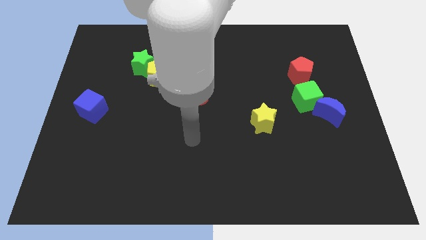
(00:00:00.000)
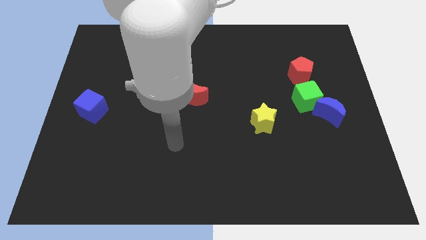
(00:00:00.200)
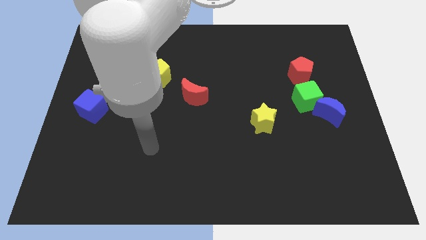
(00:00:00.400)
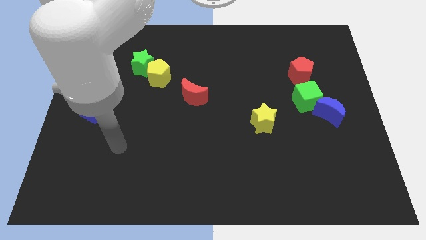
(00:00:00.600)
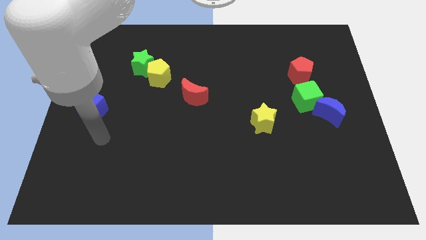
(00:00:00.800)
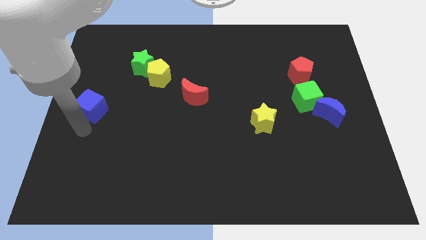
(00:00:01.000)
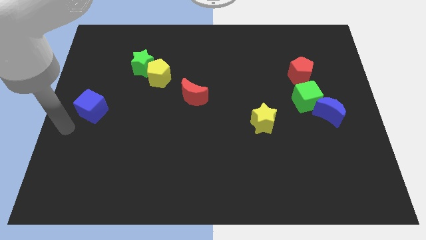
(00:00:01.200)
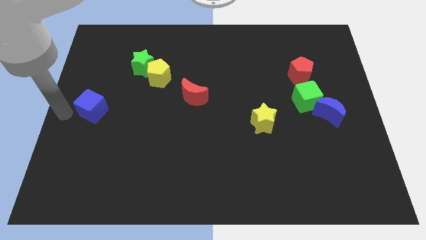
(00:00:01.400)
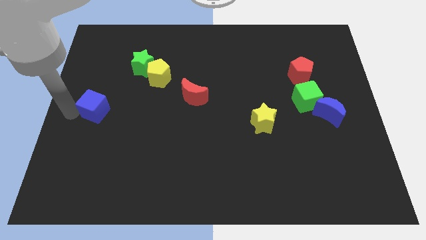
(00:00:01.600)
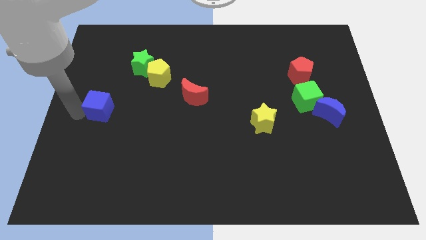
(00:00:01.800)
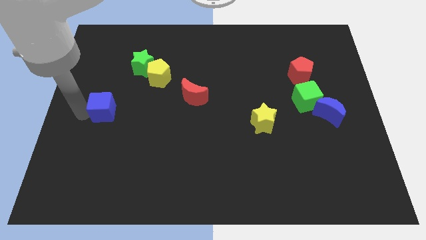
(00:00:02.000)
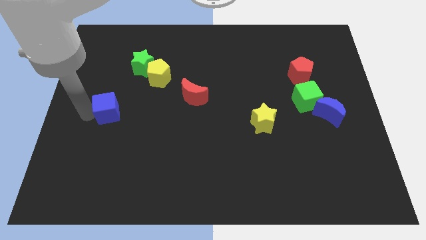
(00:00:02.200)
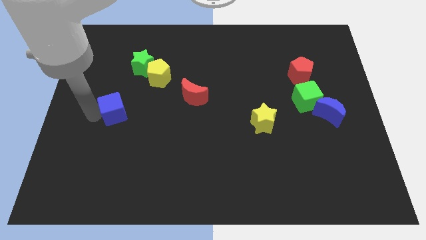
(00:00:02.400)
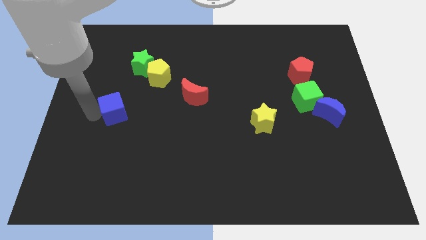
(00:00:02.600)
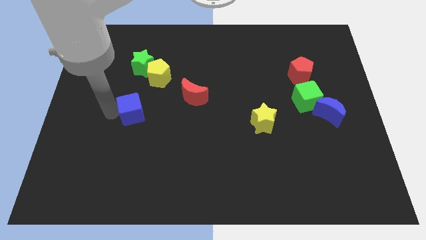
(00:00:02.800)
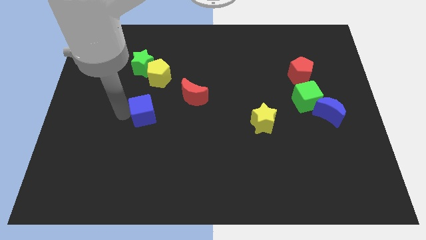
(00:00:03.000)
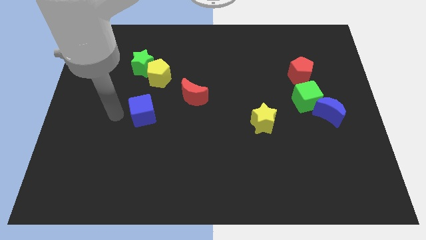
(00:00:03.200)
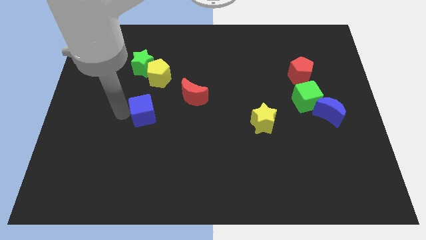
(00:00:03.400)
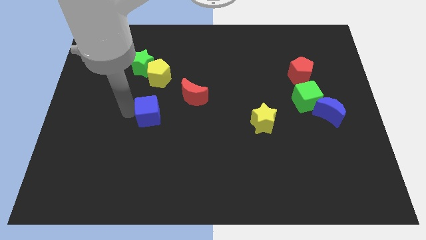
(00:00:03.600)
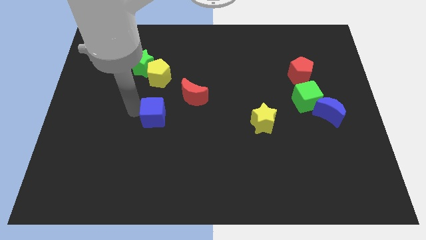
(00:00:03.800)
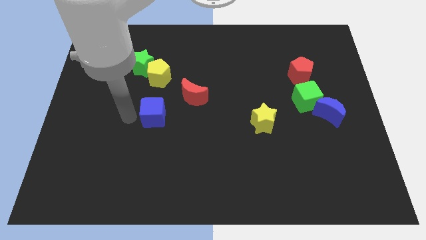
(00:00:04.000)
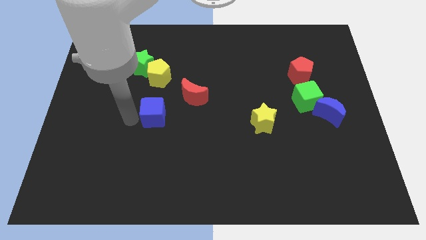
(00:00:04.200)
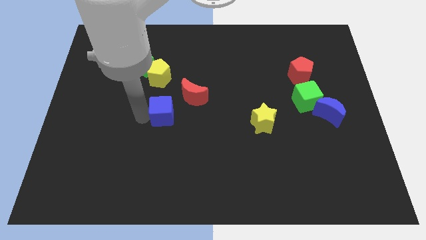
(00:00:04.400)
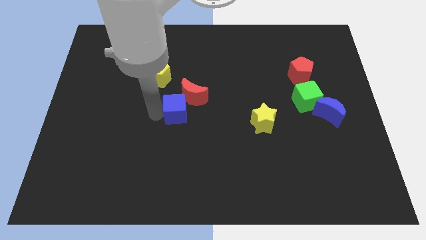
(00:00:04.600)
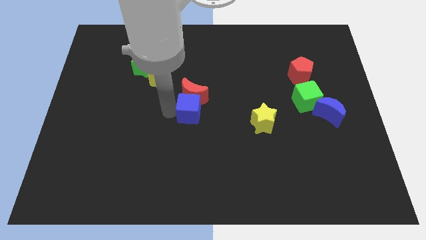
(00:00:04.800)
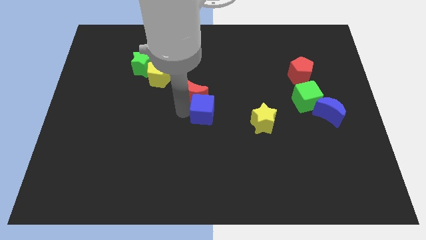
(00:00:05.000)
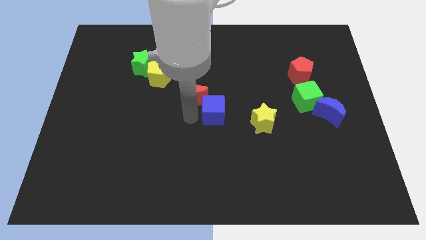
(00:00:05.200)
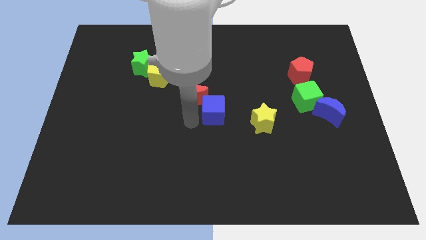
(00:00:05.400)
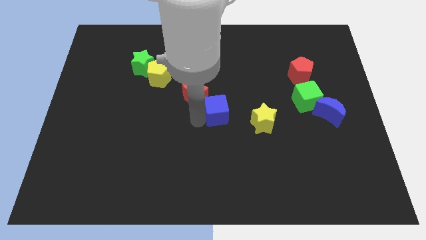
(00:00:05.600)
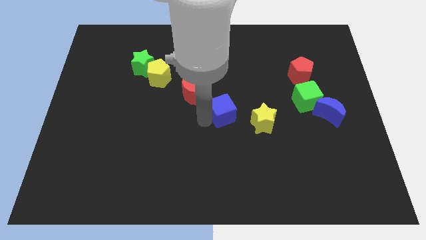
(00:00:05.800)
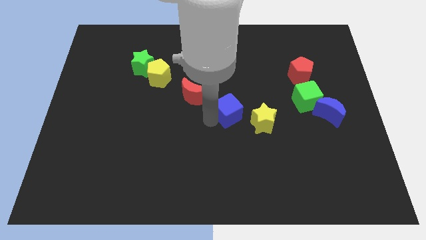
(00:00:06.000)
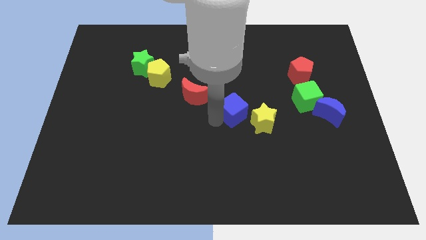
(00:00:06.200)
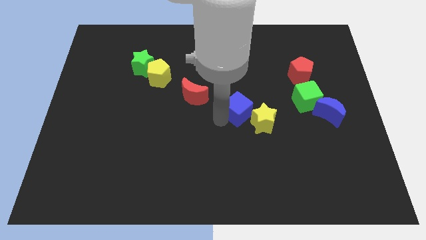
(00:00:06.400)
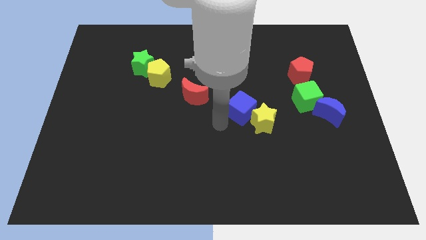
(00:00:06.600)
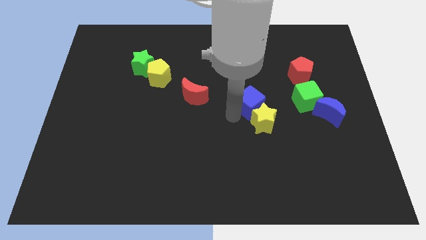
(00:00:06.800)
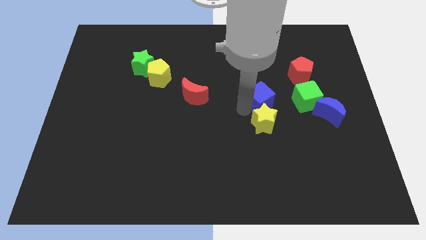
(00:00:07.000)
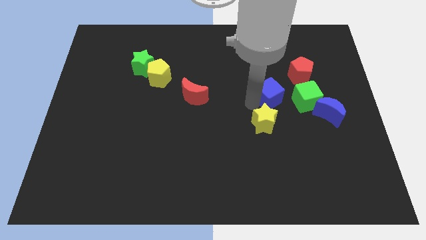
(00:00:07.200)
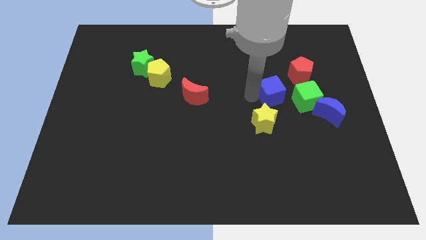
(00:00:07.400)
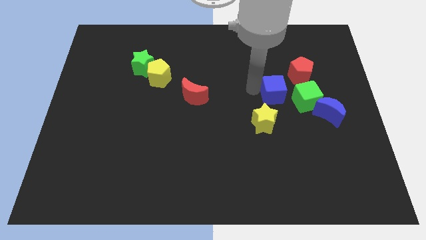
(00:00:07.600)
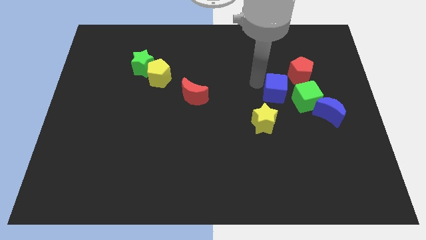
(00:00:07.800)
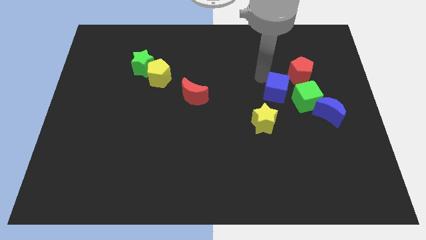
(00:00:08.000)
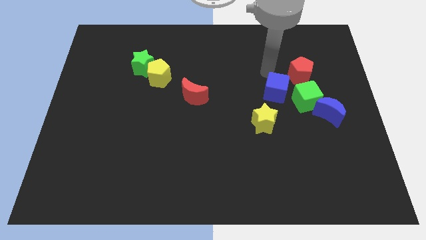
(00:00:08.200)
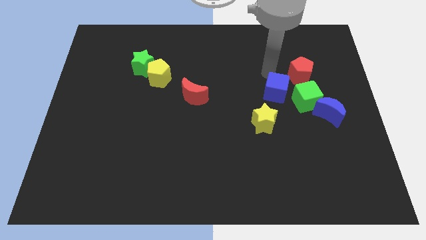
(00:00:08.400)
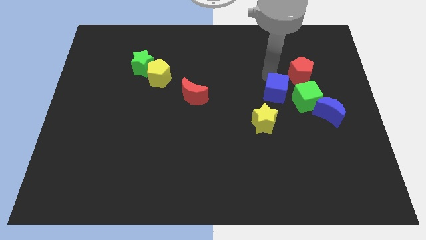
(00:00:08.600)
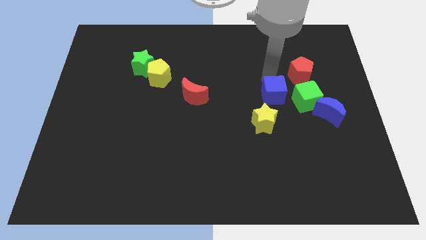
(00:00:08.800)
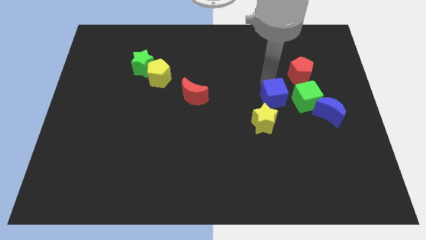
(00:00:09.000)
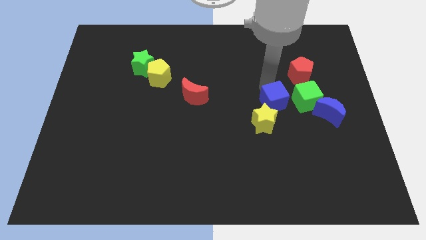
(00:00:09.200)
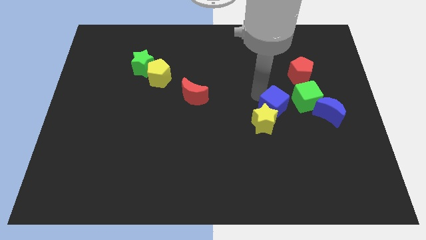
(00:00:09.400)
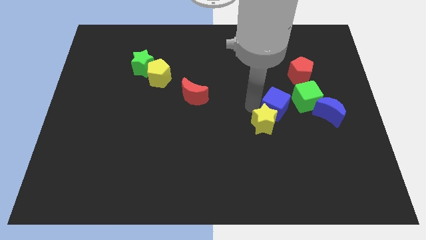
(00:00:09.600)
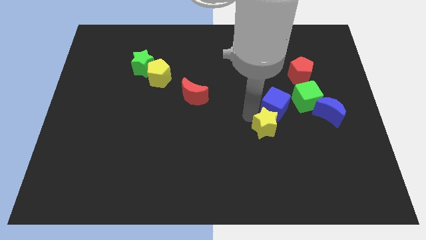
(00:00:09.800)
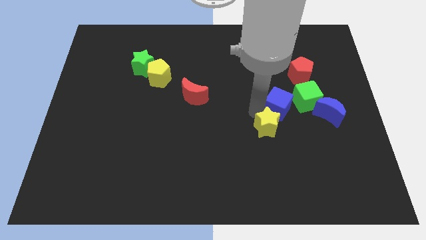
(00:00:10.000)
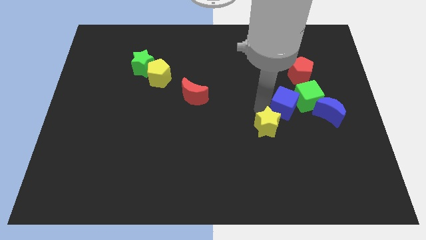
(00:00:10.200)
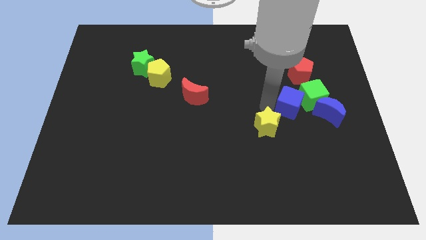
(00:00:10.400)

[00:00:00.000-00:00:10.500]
push the blue cube to the top left of the blue moon

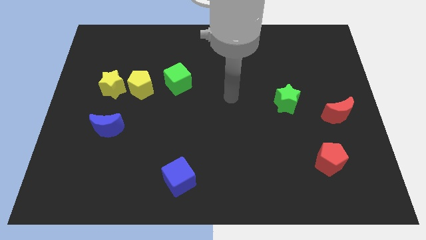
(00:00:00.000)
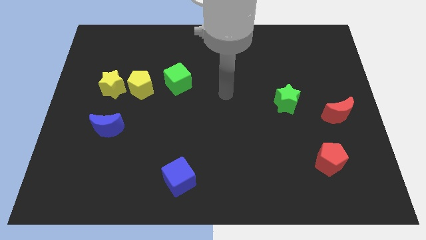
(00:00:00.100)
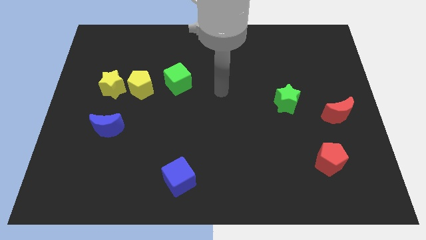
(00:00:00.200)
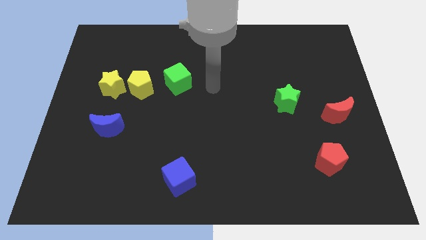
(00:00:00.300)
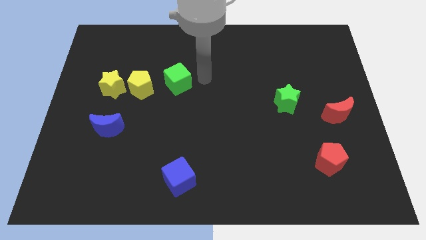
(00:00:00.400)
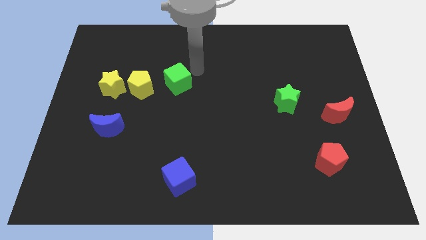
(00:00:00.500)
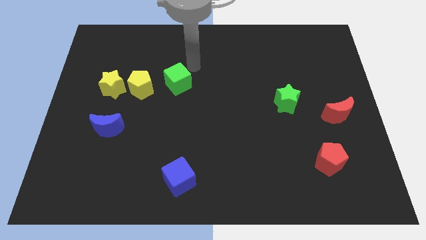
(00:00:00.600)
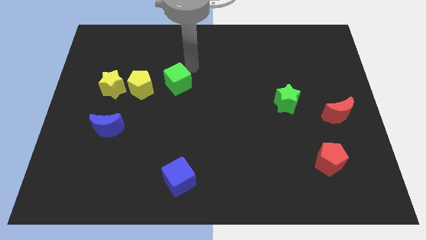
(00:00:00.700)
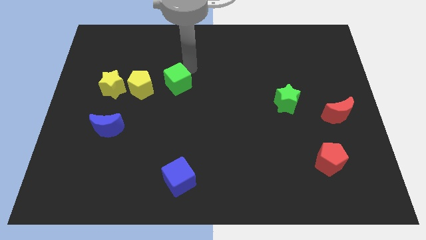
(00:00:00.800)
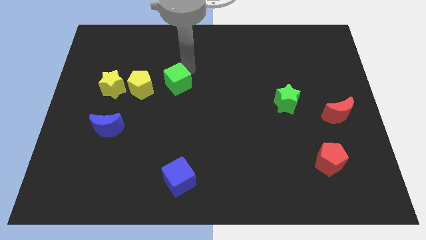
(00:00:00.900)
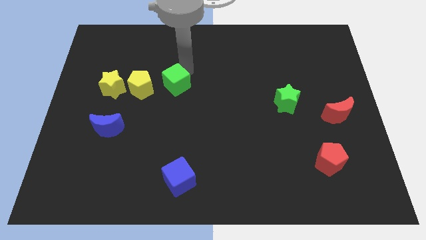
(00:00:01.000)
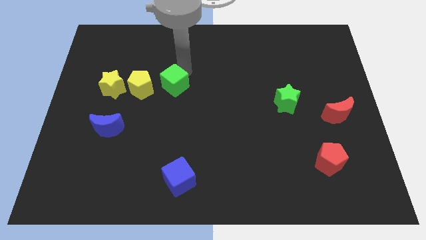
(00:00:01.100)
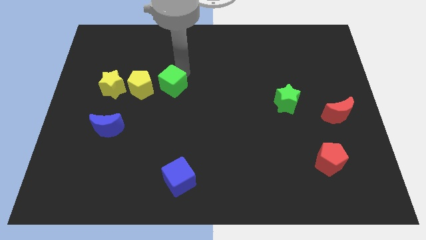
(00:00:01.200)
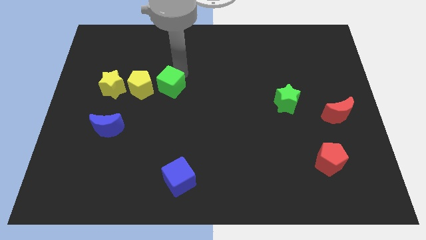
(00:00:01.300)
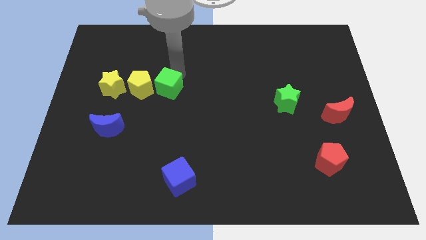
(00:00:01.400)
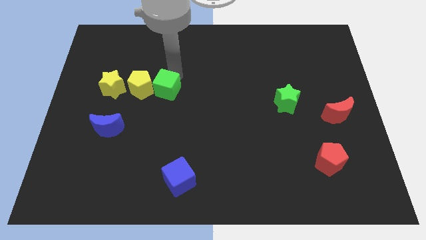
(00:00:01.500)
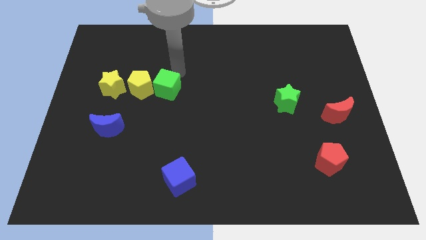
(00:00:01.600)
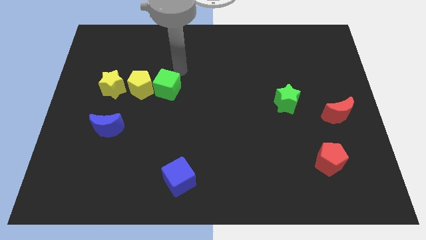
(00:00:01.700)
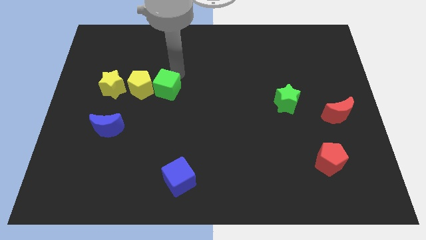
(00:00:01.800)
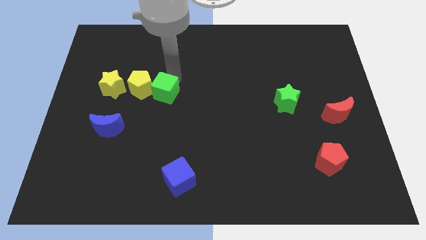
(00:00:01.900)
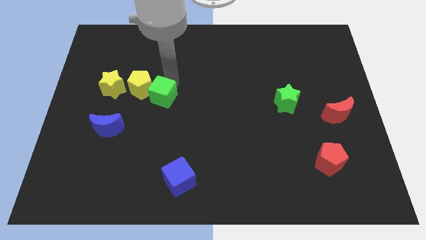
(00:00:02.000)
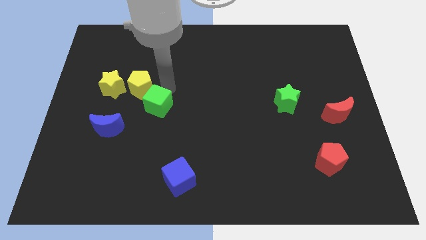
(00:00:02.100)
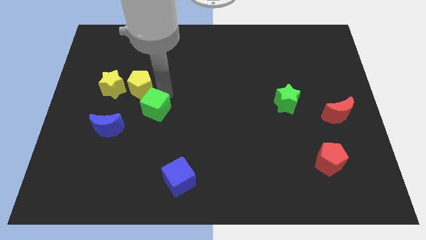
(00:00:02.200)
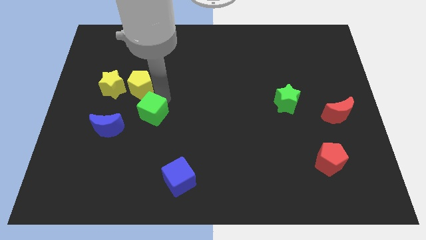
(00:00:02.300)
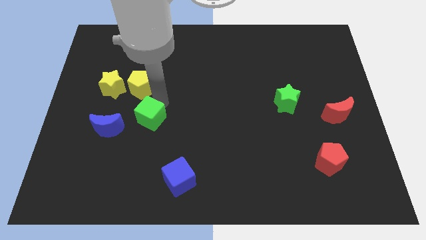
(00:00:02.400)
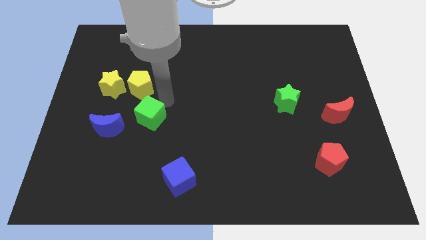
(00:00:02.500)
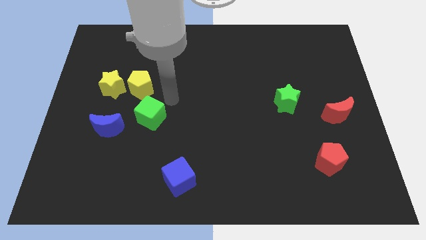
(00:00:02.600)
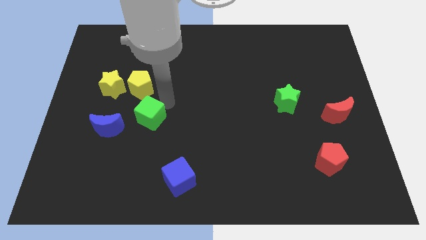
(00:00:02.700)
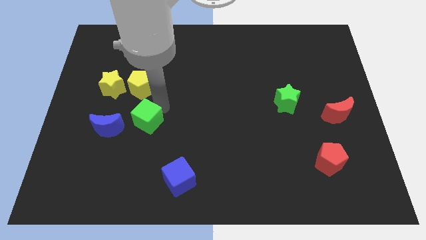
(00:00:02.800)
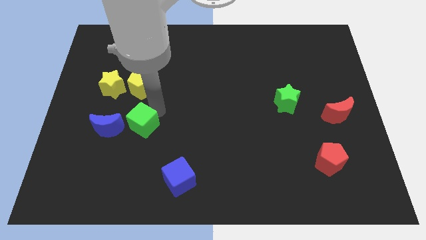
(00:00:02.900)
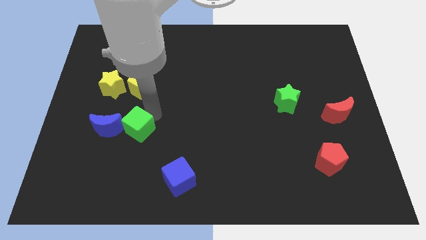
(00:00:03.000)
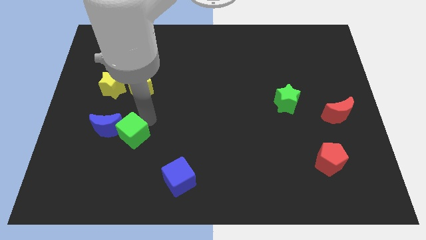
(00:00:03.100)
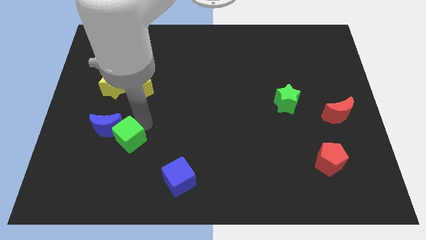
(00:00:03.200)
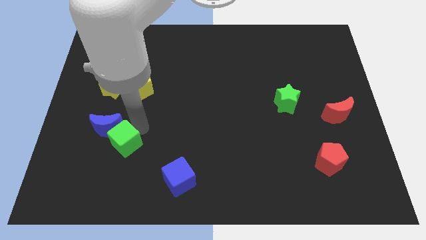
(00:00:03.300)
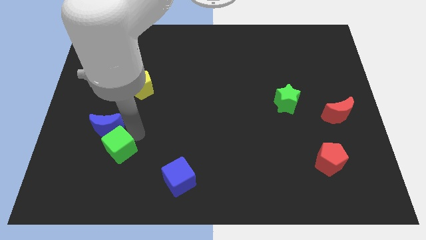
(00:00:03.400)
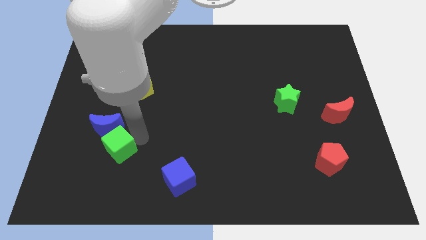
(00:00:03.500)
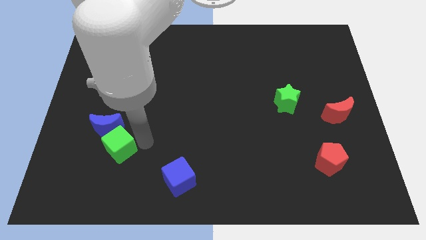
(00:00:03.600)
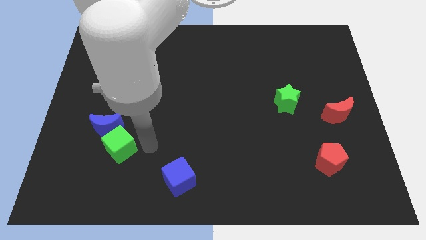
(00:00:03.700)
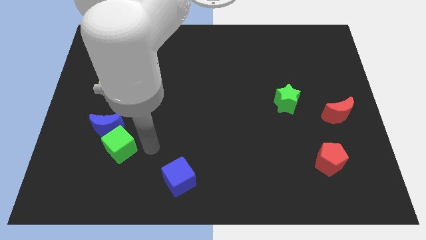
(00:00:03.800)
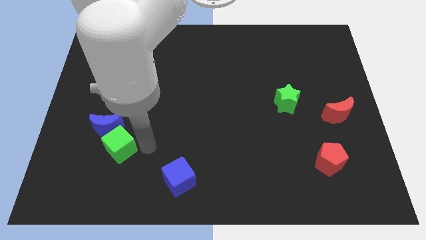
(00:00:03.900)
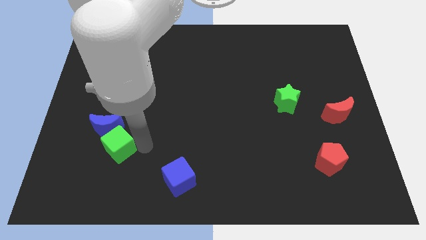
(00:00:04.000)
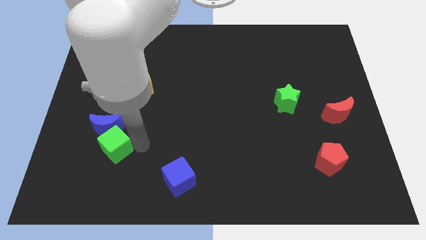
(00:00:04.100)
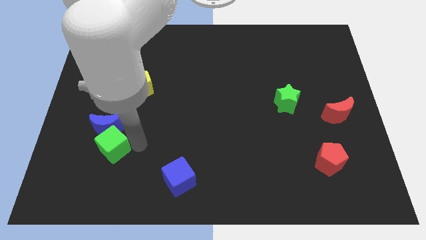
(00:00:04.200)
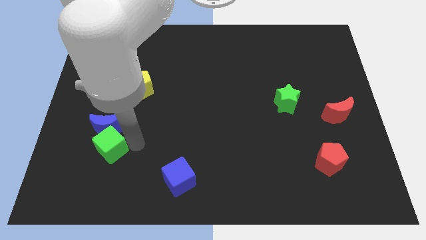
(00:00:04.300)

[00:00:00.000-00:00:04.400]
put the green cube diagonally down and to the left of the blue moon
